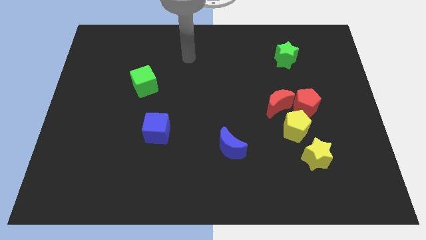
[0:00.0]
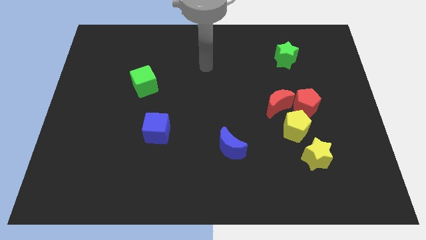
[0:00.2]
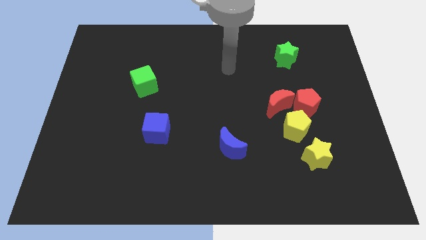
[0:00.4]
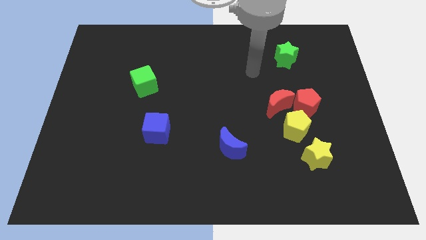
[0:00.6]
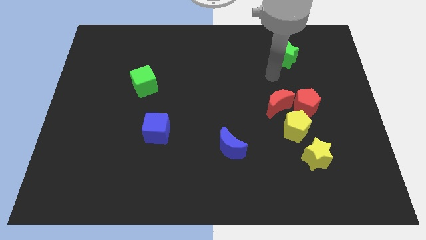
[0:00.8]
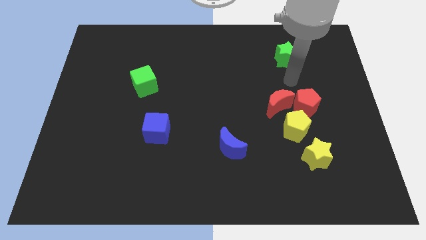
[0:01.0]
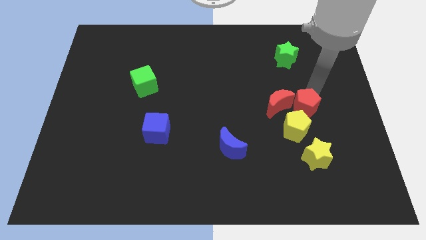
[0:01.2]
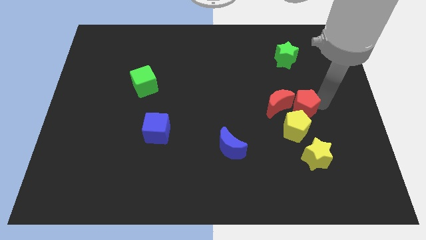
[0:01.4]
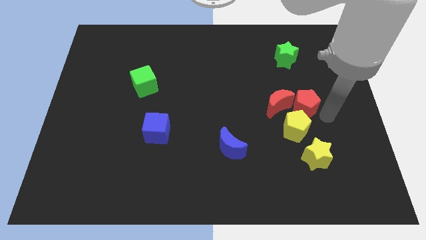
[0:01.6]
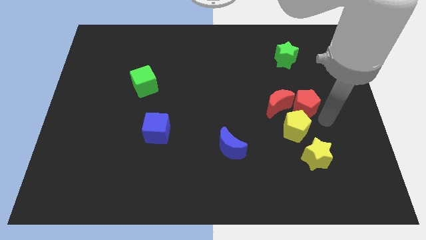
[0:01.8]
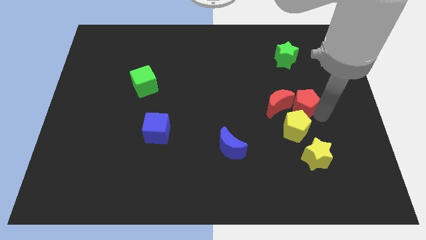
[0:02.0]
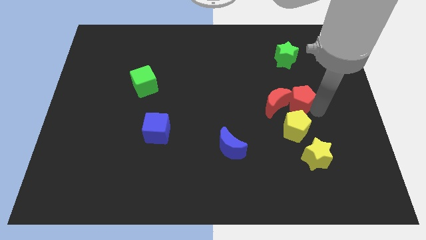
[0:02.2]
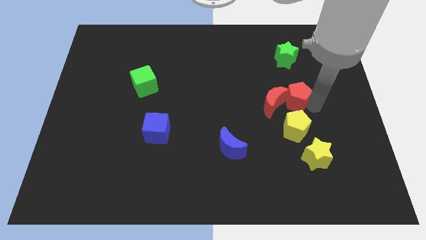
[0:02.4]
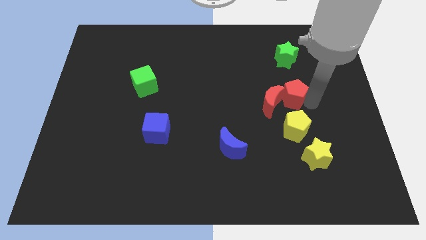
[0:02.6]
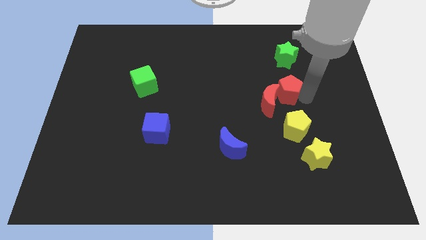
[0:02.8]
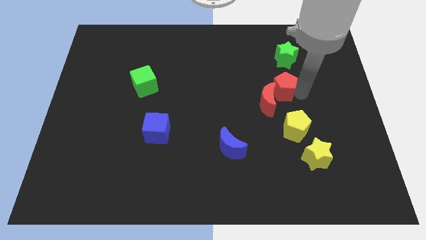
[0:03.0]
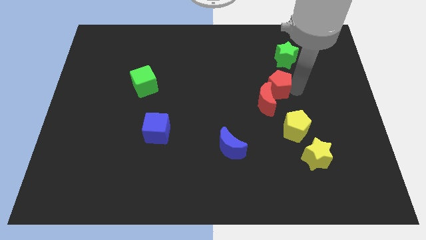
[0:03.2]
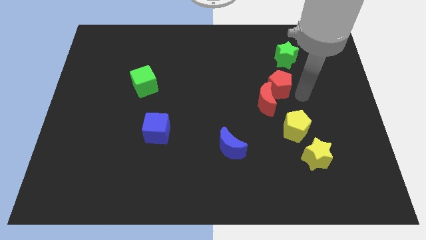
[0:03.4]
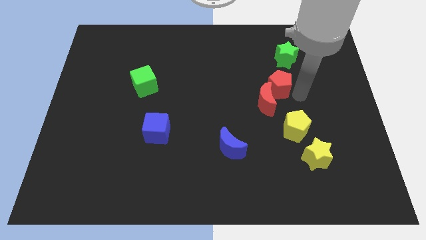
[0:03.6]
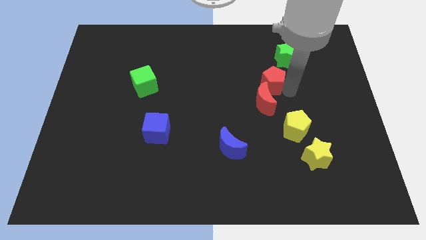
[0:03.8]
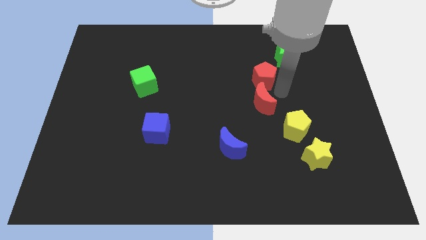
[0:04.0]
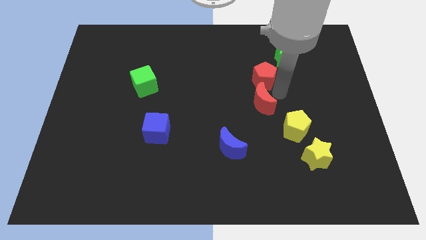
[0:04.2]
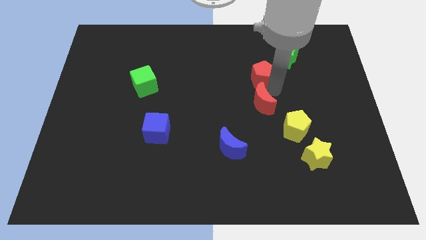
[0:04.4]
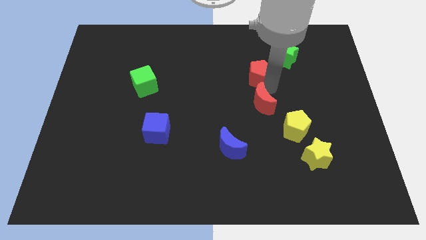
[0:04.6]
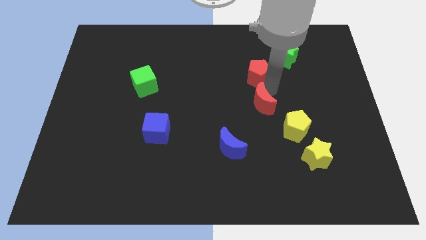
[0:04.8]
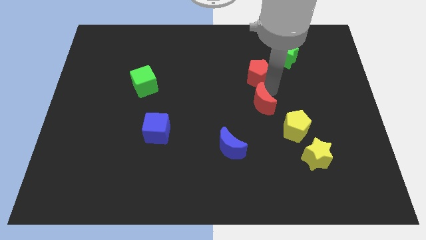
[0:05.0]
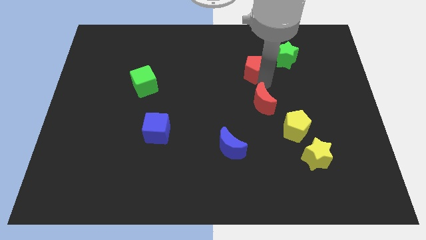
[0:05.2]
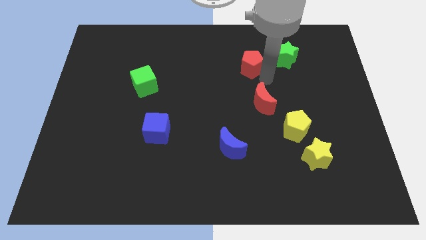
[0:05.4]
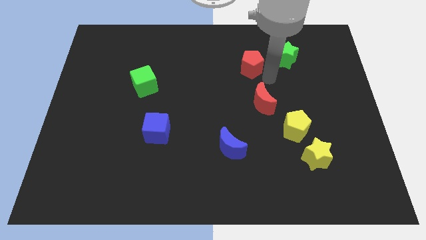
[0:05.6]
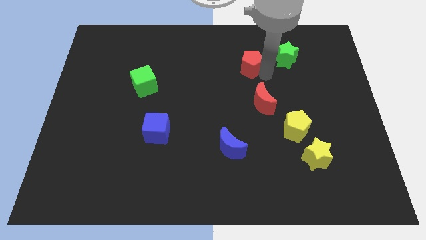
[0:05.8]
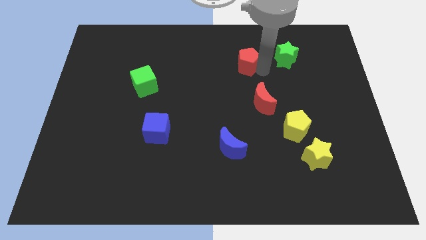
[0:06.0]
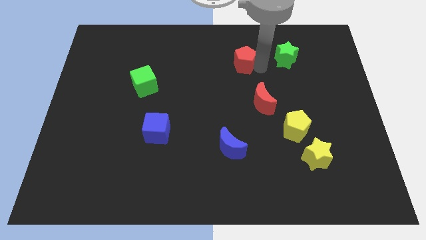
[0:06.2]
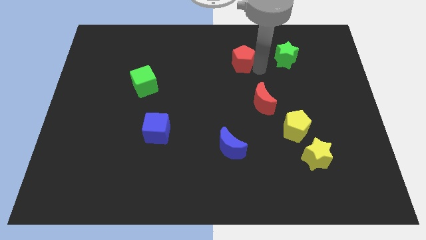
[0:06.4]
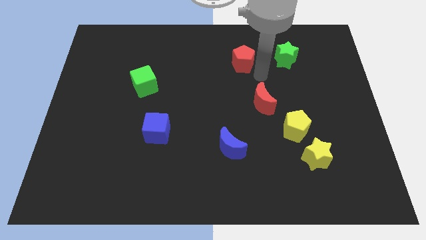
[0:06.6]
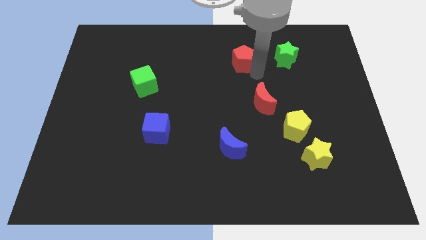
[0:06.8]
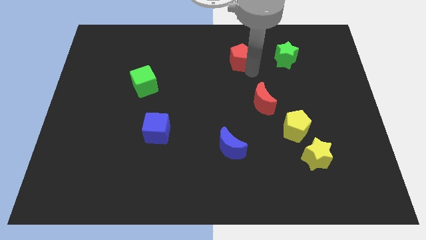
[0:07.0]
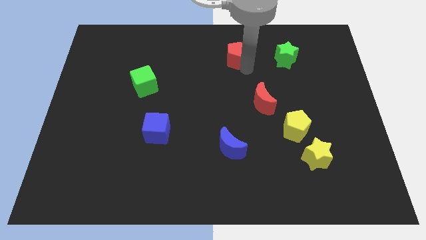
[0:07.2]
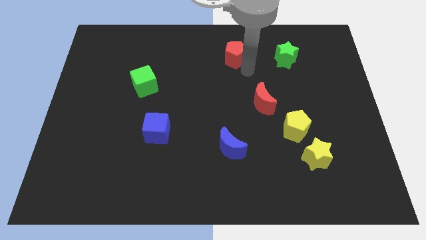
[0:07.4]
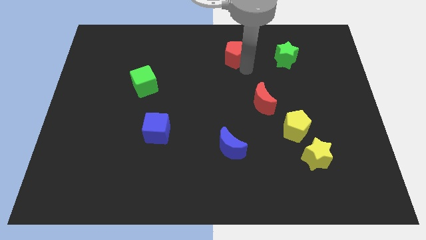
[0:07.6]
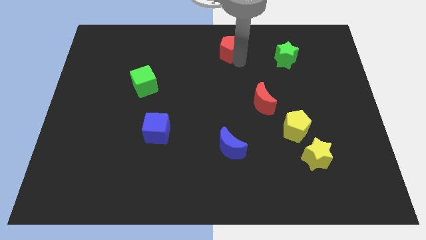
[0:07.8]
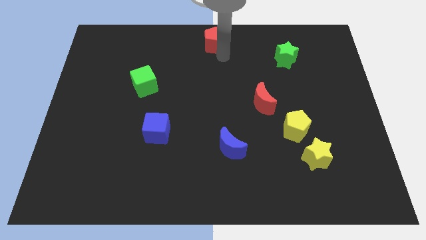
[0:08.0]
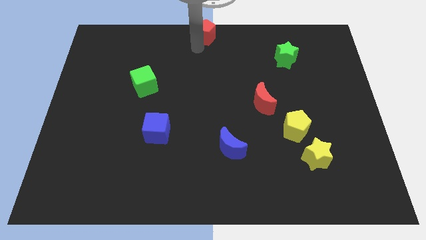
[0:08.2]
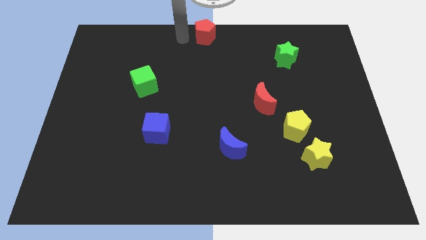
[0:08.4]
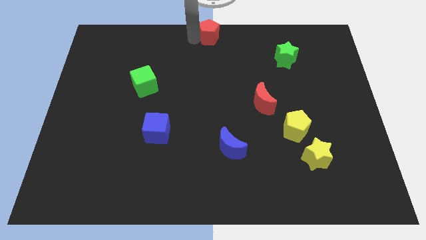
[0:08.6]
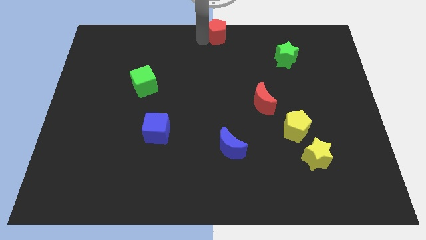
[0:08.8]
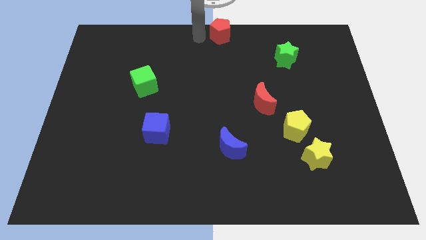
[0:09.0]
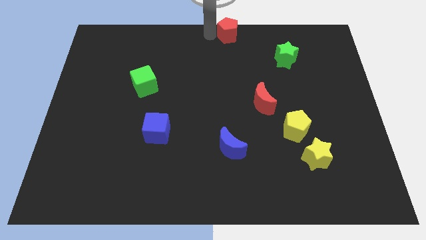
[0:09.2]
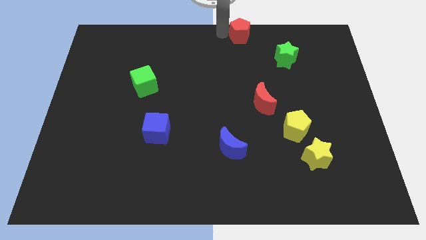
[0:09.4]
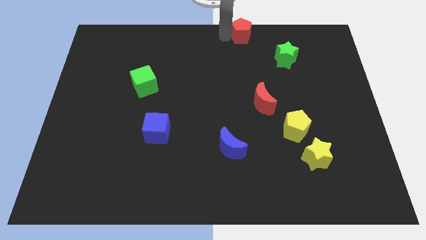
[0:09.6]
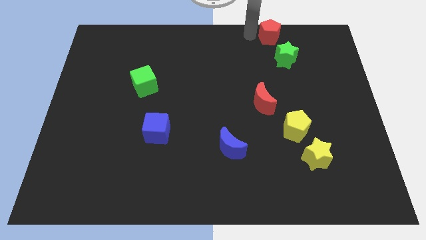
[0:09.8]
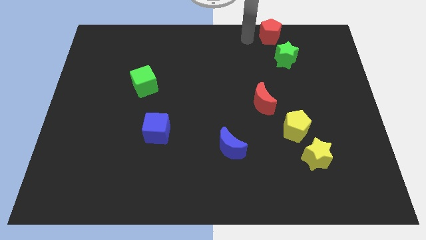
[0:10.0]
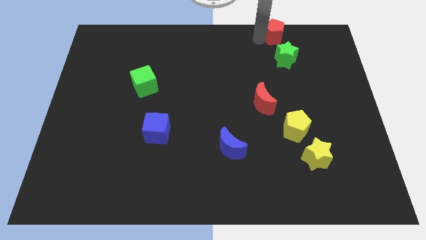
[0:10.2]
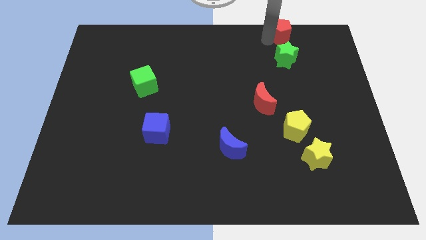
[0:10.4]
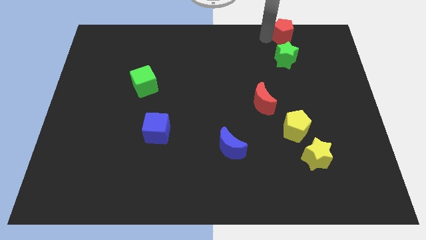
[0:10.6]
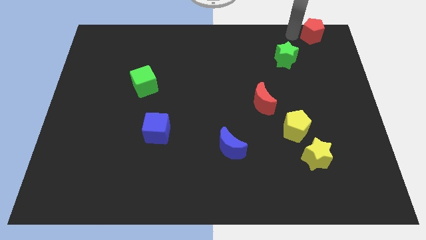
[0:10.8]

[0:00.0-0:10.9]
push the red pentagon to the top right corner
